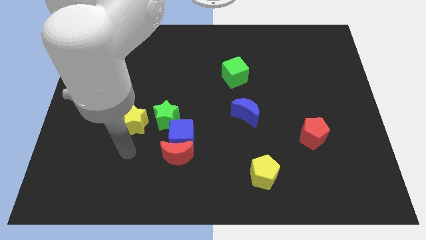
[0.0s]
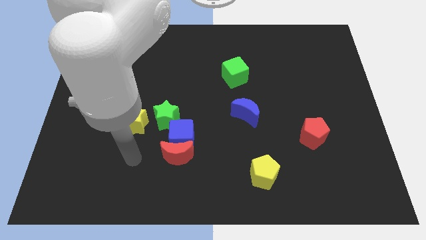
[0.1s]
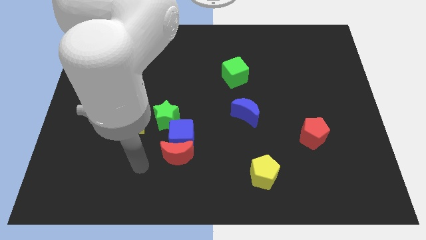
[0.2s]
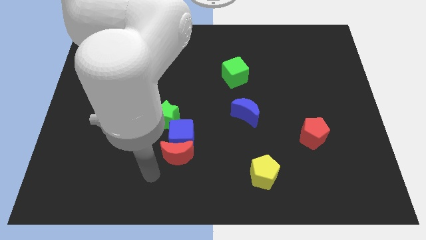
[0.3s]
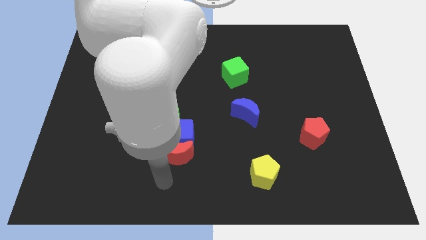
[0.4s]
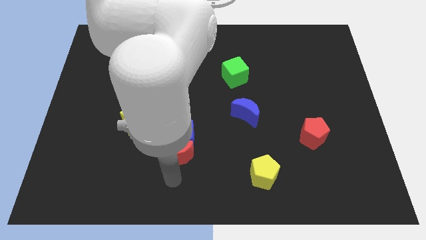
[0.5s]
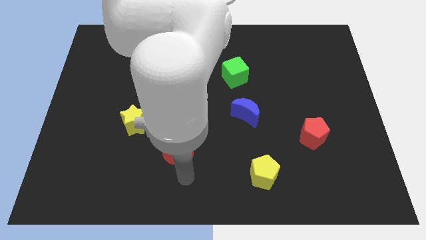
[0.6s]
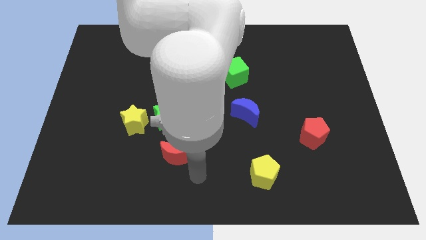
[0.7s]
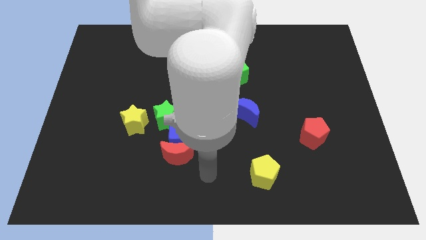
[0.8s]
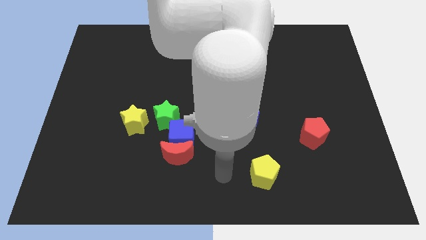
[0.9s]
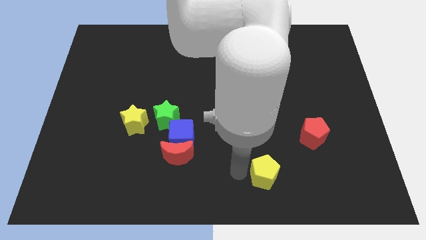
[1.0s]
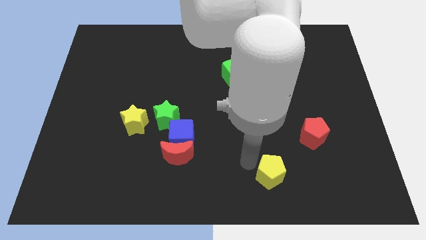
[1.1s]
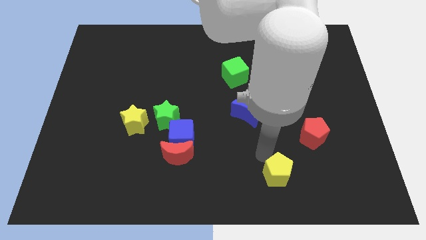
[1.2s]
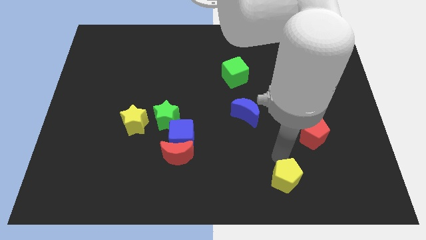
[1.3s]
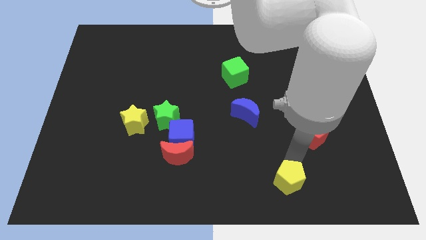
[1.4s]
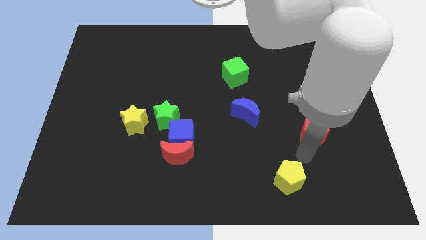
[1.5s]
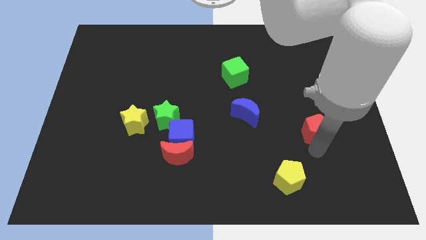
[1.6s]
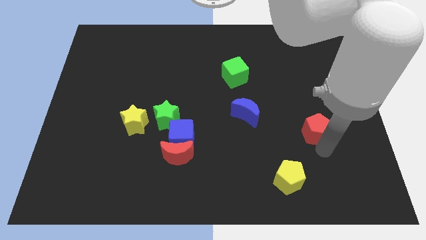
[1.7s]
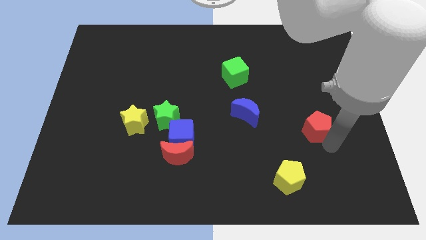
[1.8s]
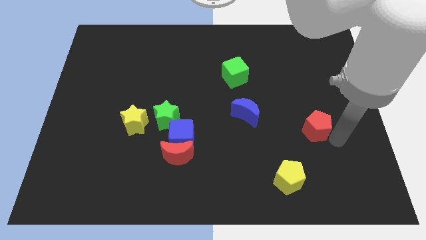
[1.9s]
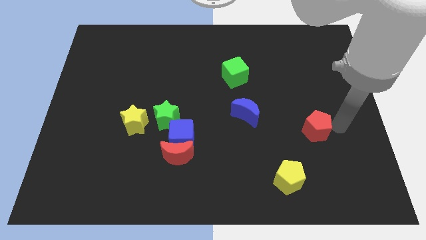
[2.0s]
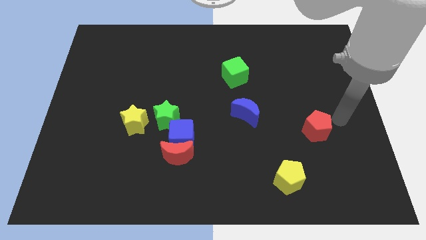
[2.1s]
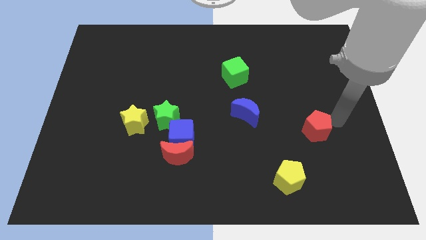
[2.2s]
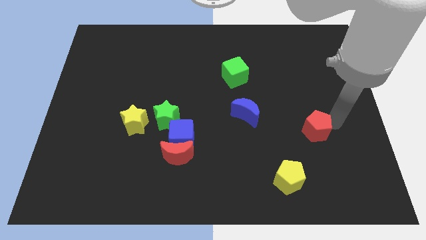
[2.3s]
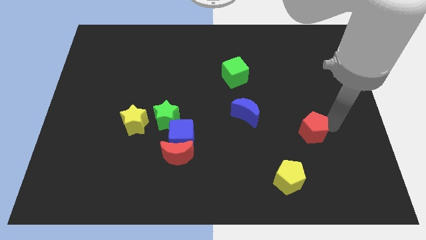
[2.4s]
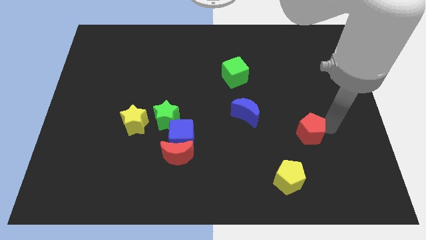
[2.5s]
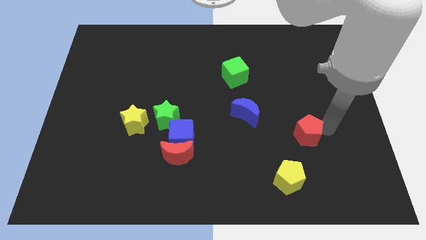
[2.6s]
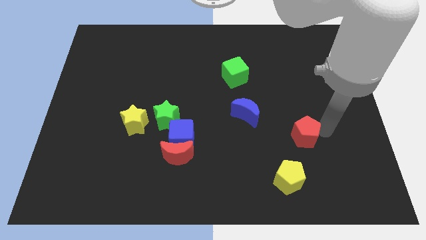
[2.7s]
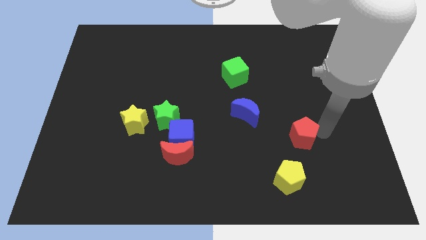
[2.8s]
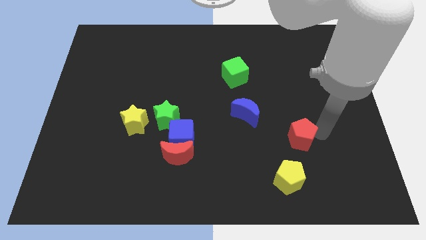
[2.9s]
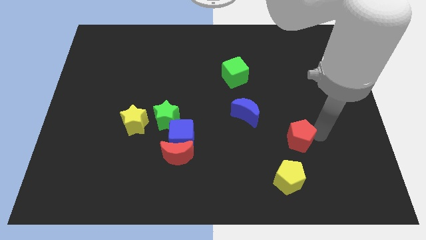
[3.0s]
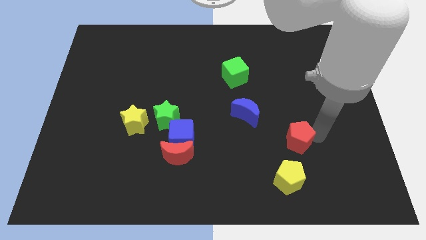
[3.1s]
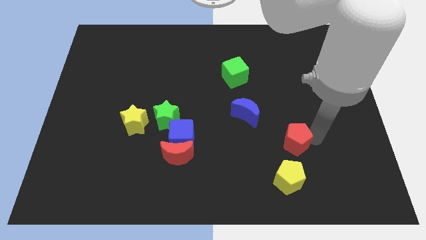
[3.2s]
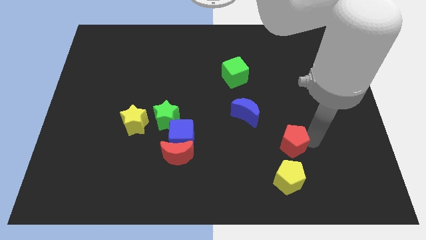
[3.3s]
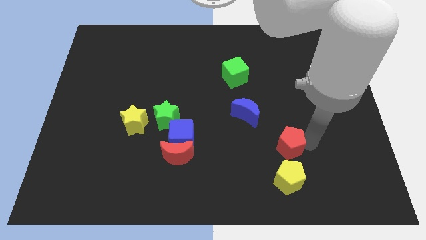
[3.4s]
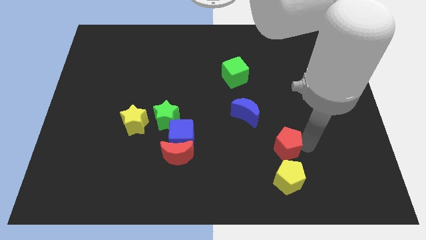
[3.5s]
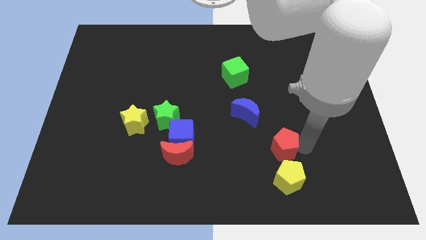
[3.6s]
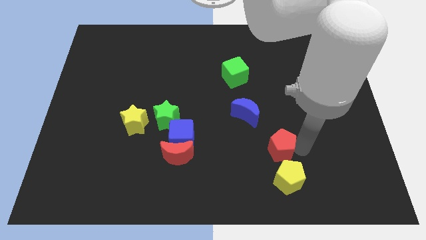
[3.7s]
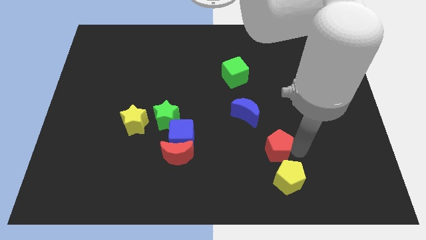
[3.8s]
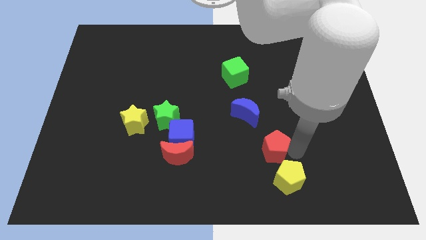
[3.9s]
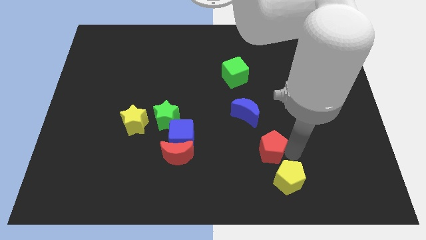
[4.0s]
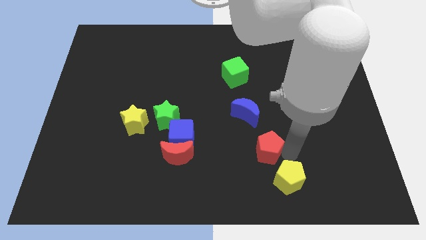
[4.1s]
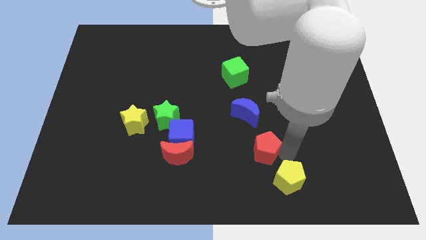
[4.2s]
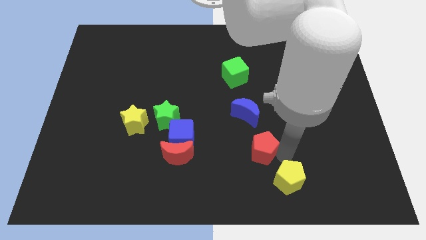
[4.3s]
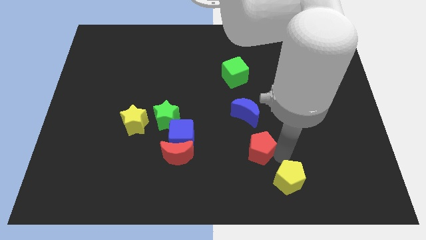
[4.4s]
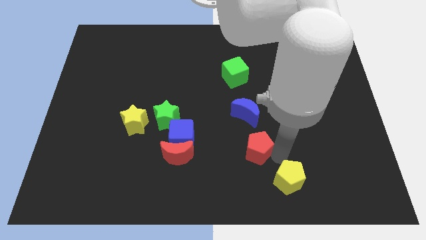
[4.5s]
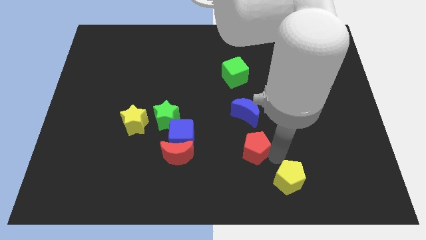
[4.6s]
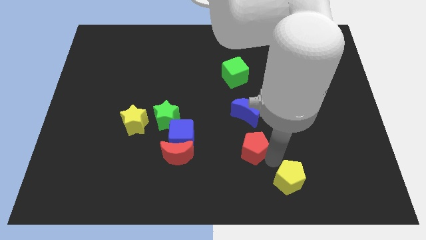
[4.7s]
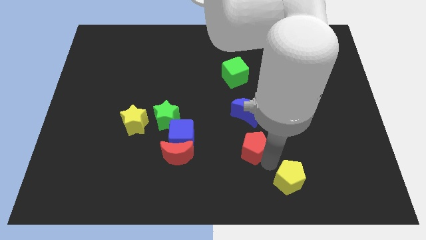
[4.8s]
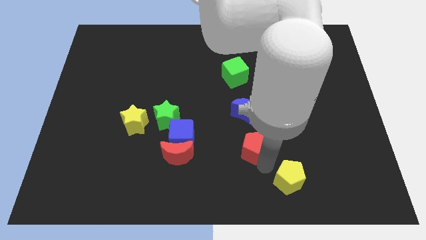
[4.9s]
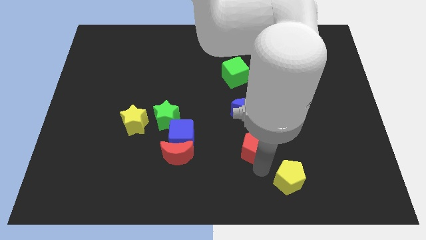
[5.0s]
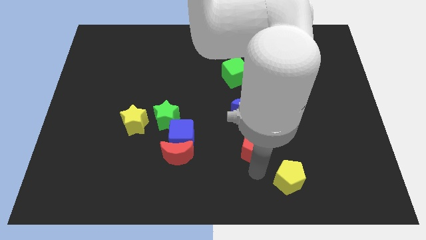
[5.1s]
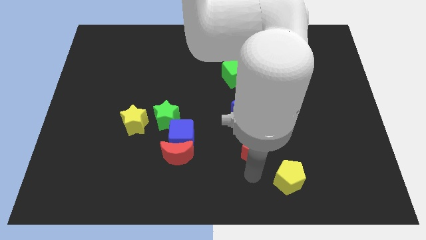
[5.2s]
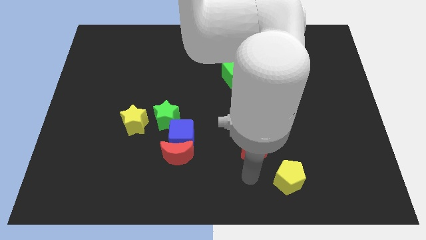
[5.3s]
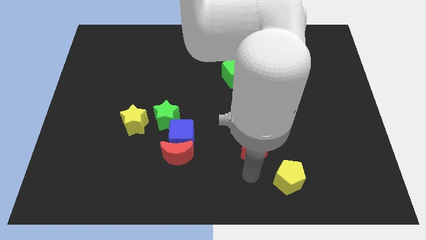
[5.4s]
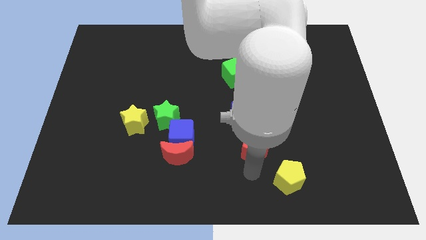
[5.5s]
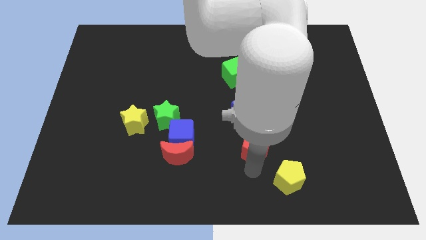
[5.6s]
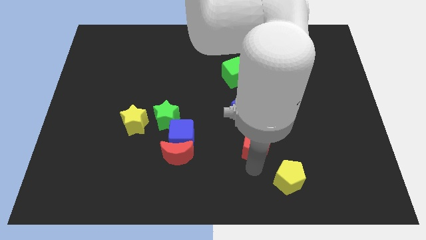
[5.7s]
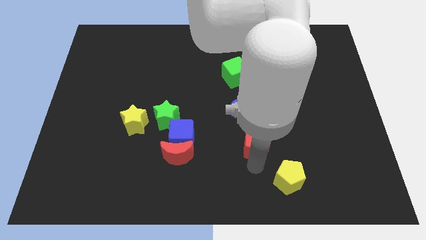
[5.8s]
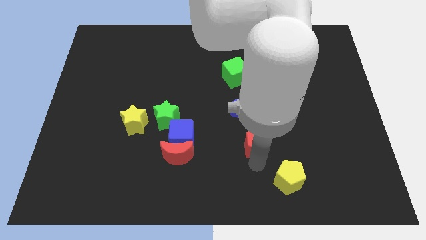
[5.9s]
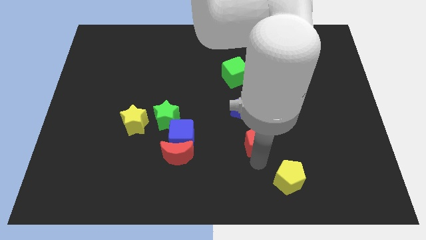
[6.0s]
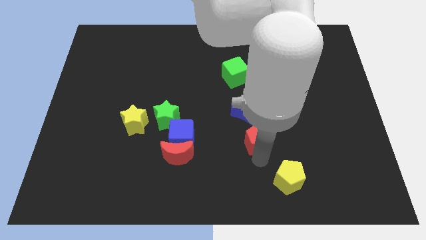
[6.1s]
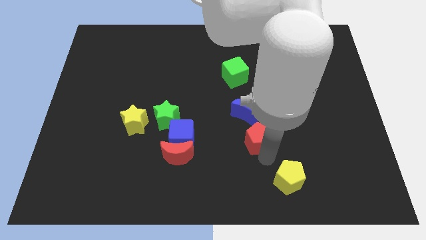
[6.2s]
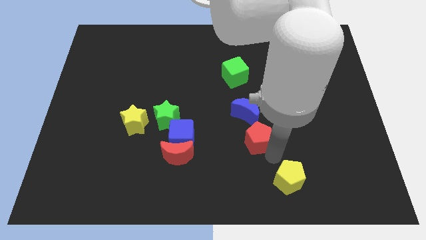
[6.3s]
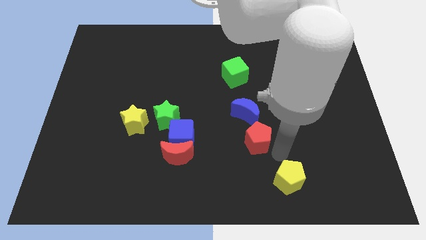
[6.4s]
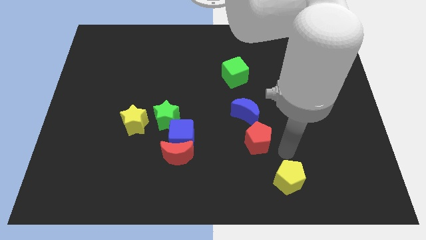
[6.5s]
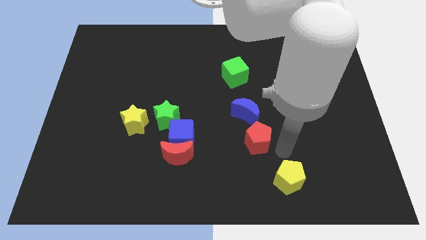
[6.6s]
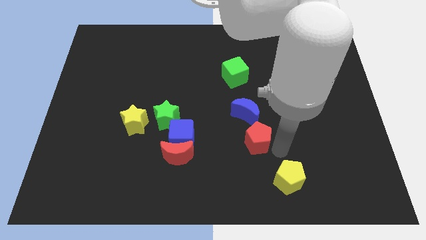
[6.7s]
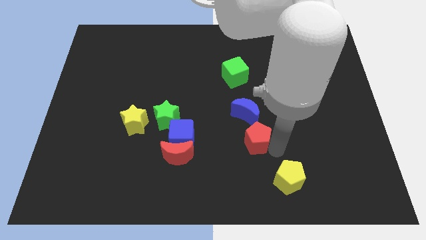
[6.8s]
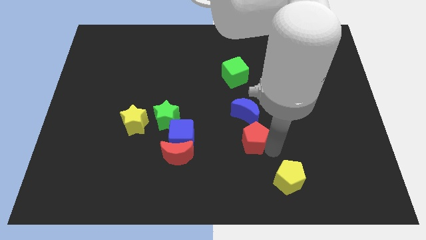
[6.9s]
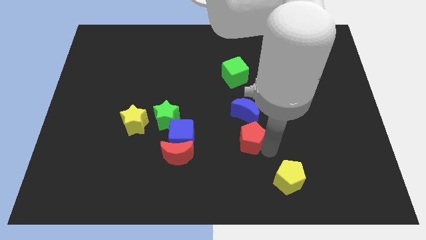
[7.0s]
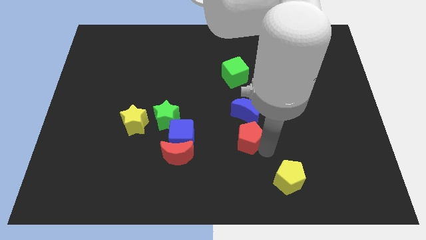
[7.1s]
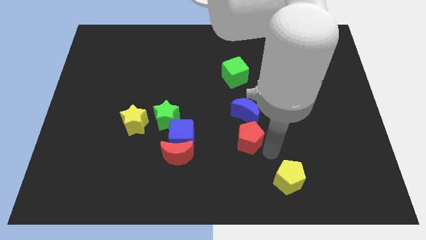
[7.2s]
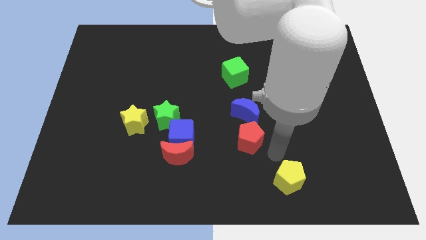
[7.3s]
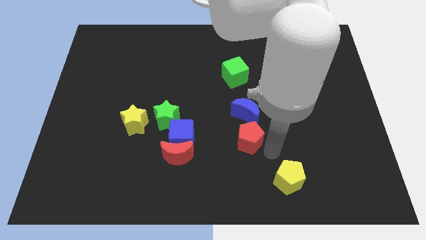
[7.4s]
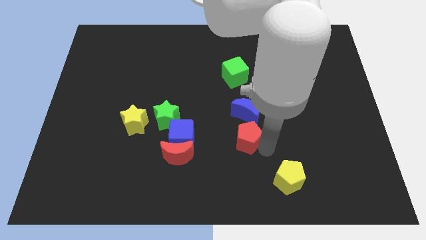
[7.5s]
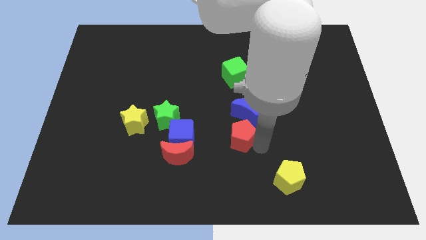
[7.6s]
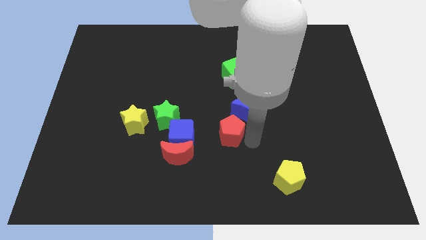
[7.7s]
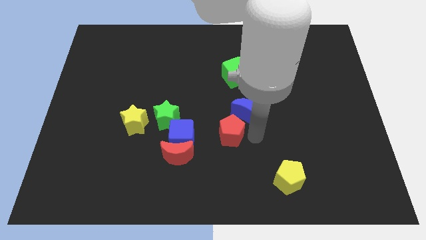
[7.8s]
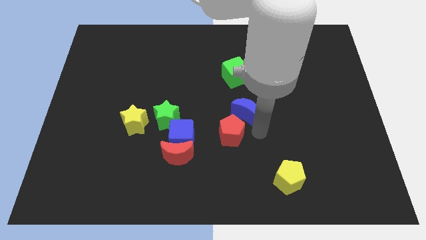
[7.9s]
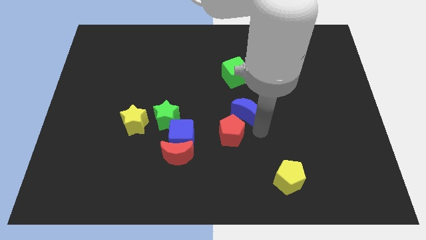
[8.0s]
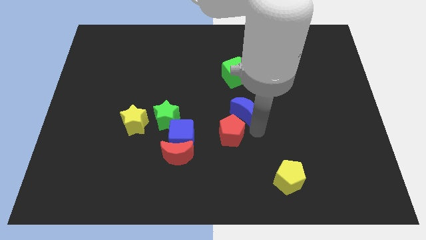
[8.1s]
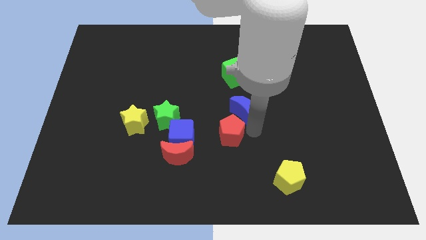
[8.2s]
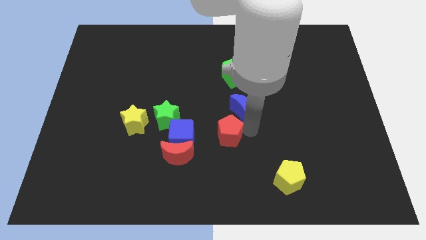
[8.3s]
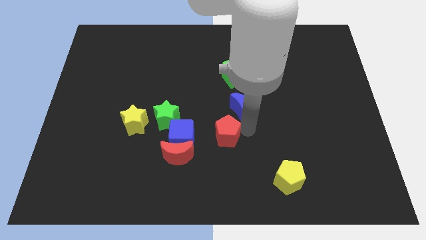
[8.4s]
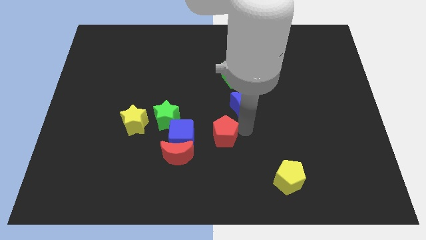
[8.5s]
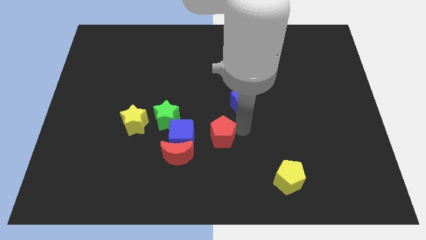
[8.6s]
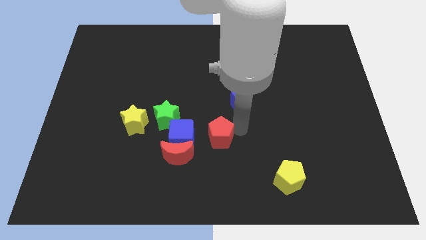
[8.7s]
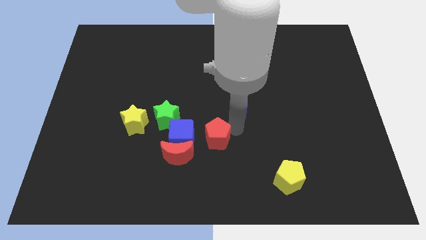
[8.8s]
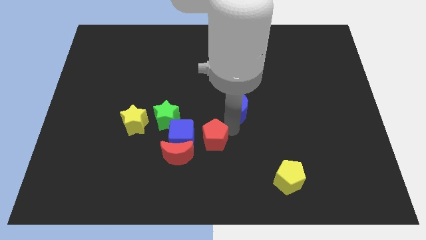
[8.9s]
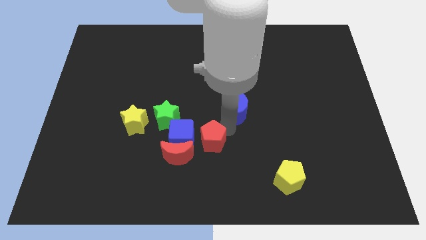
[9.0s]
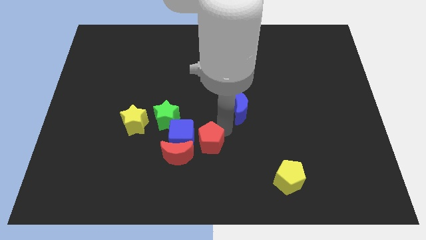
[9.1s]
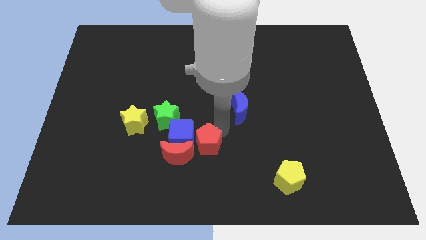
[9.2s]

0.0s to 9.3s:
move the red pentagon next to the blue cube
